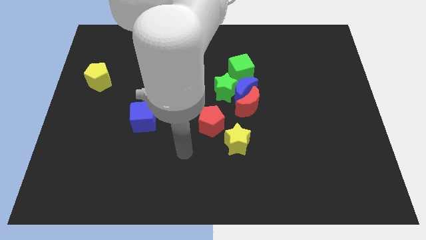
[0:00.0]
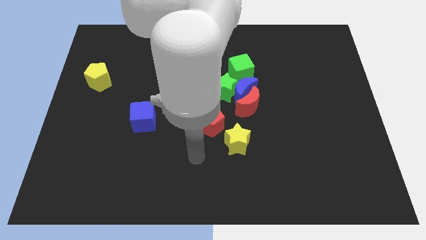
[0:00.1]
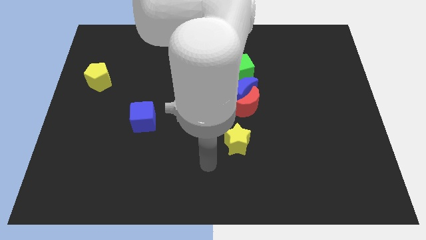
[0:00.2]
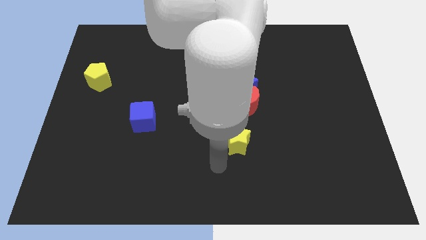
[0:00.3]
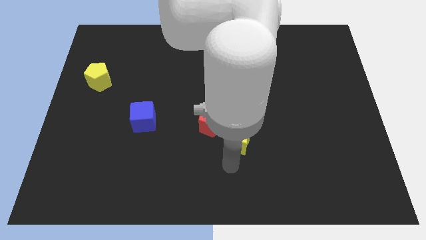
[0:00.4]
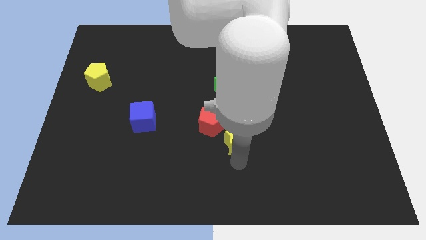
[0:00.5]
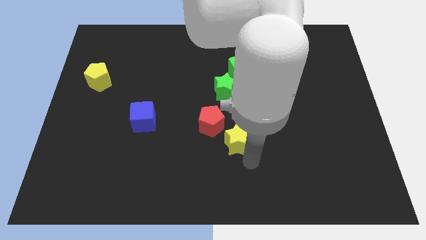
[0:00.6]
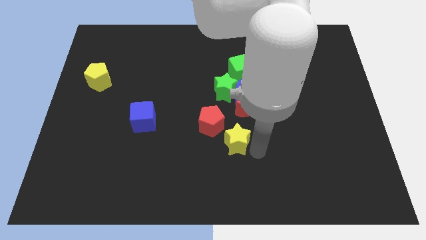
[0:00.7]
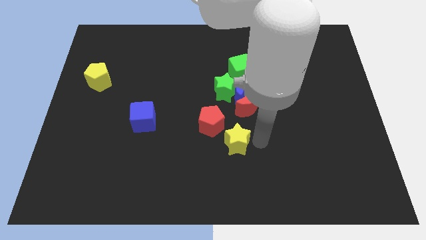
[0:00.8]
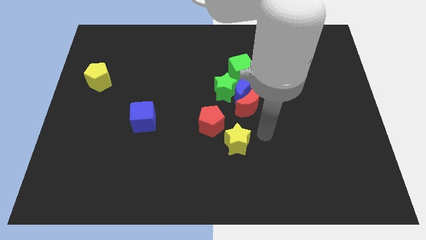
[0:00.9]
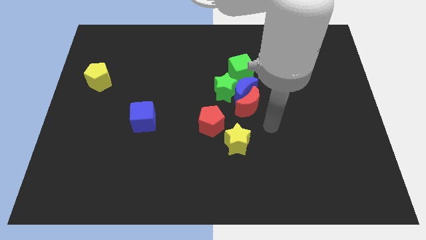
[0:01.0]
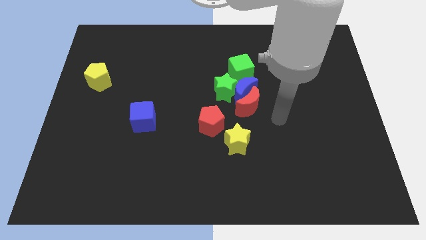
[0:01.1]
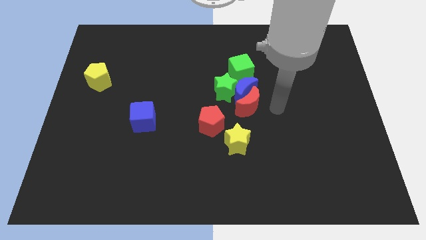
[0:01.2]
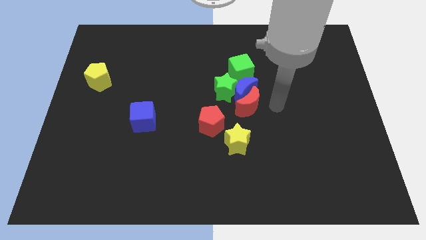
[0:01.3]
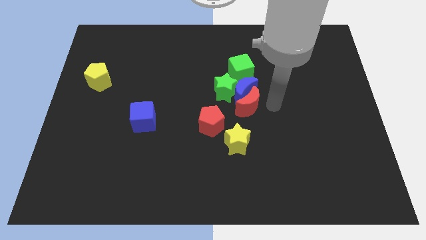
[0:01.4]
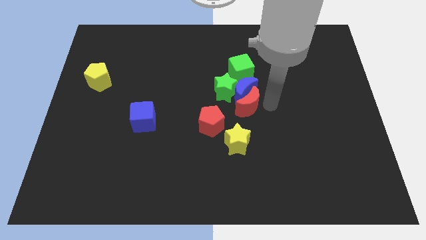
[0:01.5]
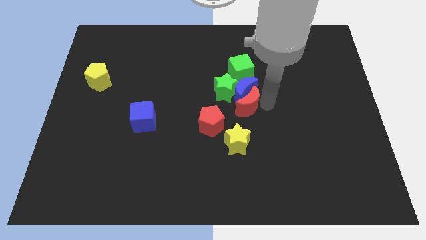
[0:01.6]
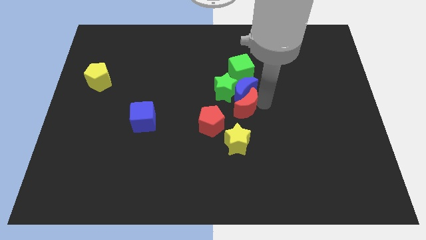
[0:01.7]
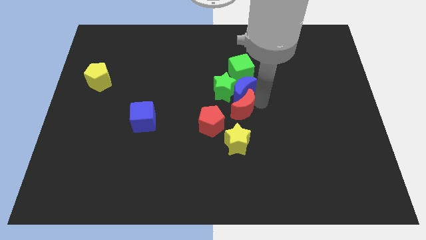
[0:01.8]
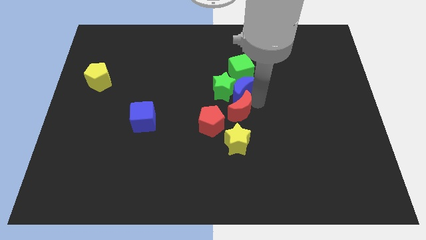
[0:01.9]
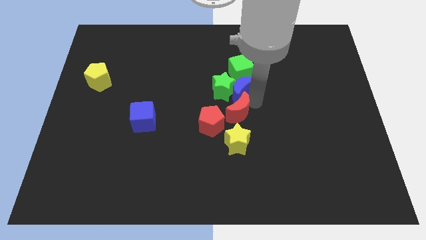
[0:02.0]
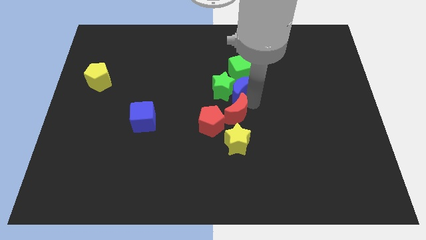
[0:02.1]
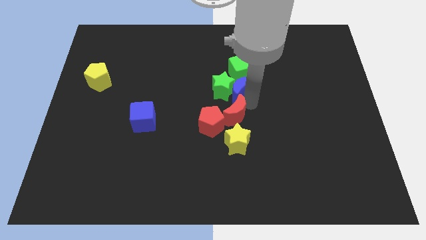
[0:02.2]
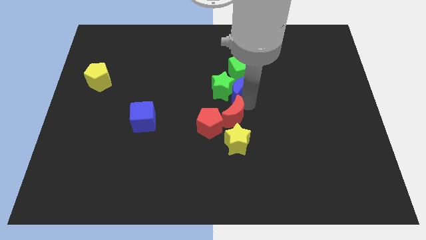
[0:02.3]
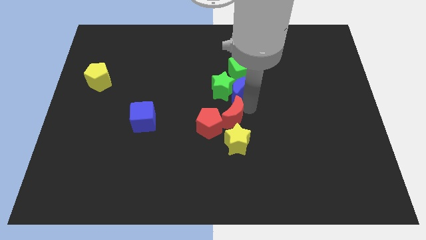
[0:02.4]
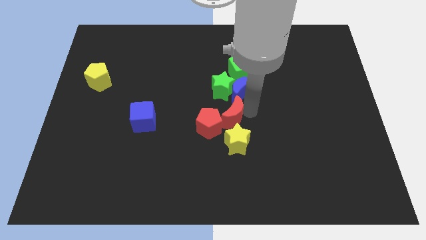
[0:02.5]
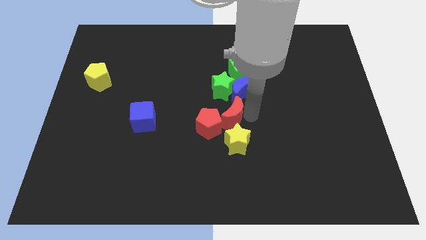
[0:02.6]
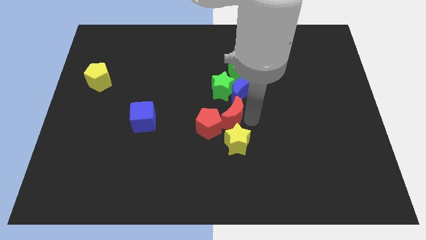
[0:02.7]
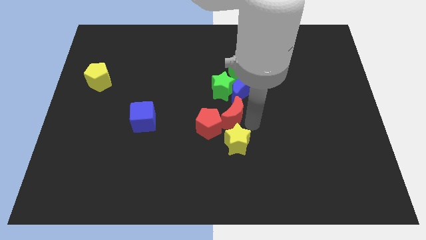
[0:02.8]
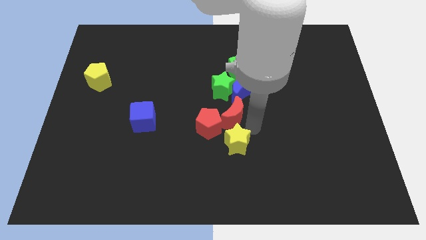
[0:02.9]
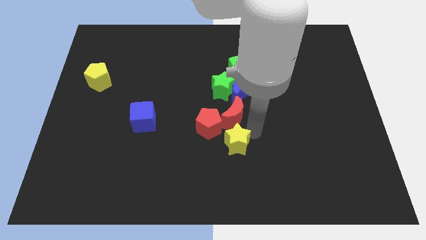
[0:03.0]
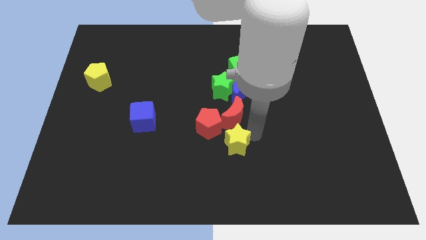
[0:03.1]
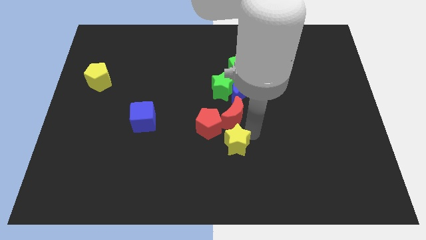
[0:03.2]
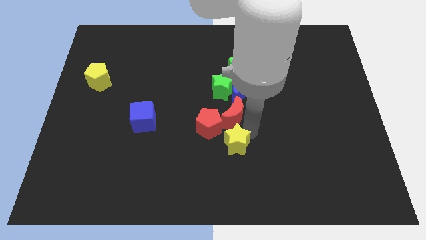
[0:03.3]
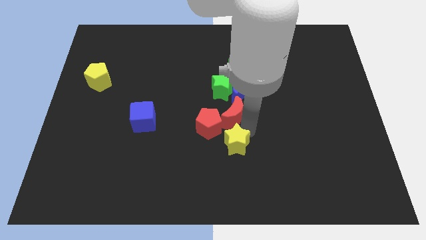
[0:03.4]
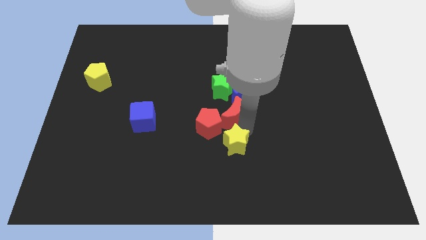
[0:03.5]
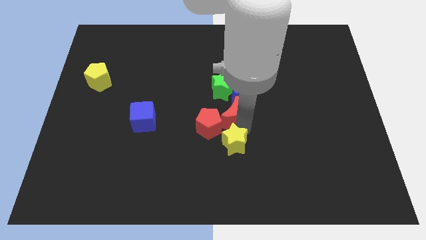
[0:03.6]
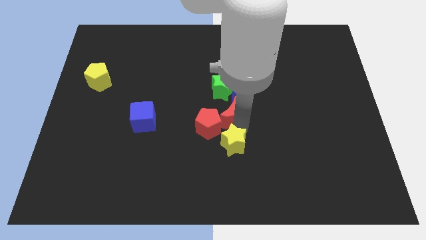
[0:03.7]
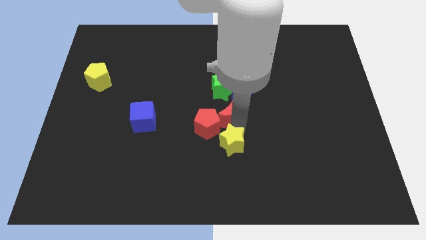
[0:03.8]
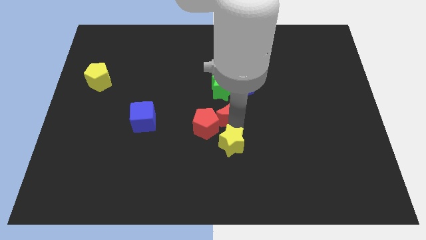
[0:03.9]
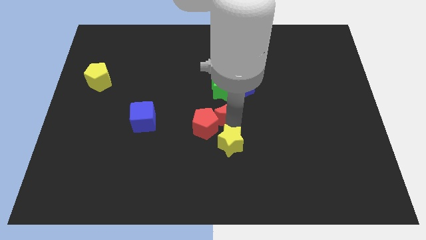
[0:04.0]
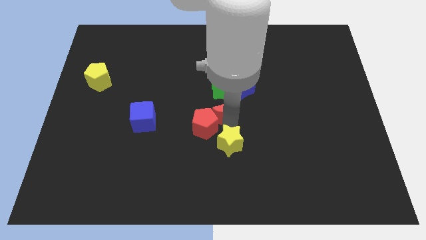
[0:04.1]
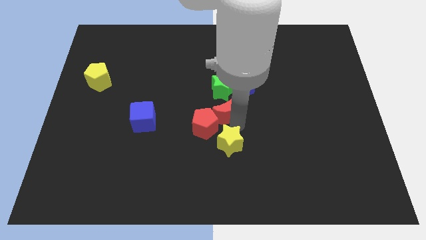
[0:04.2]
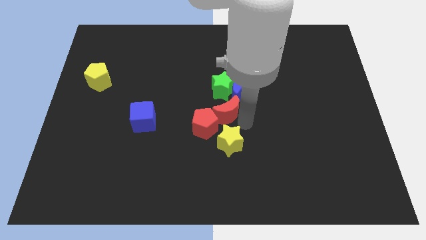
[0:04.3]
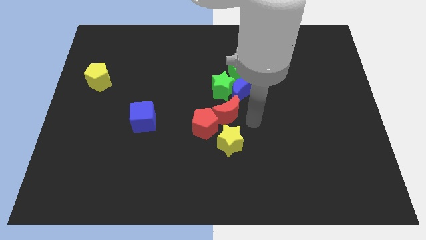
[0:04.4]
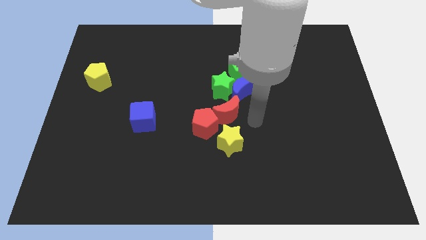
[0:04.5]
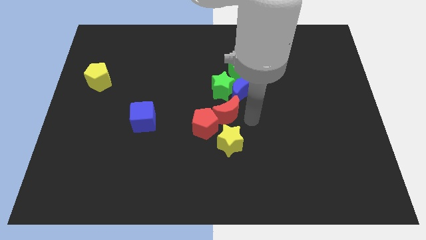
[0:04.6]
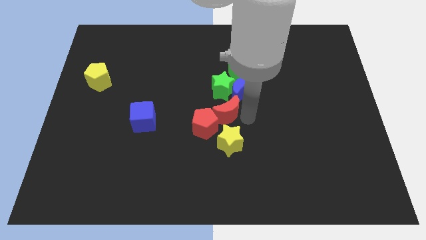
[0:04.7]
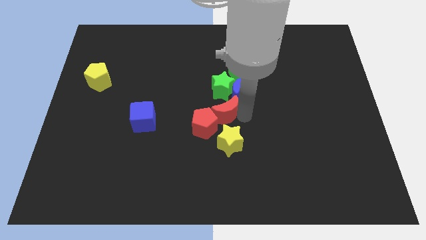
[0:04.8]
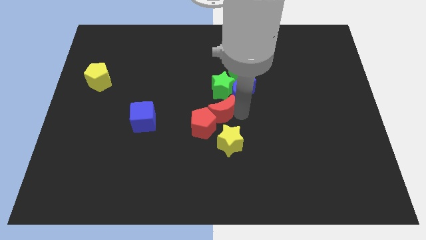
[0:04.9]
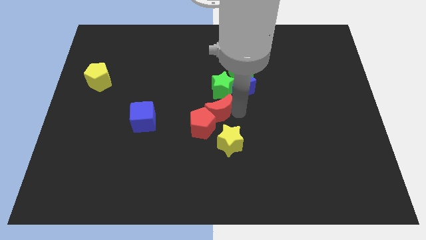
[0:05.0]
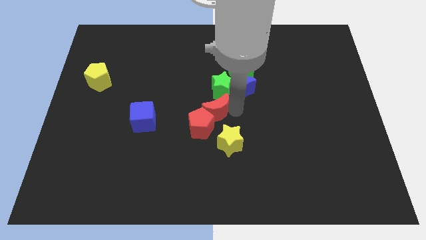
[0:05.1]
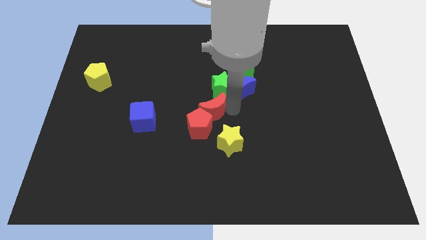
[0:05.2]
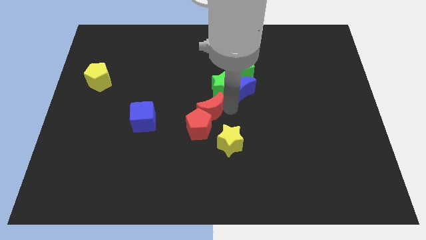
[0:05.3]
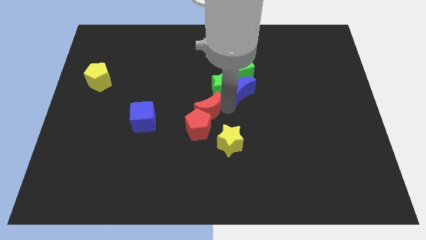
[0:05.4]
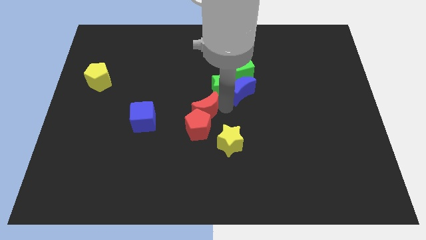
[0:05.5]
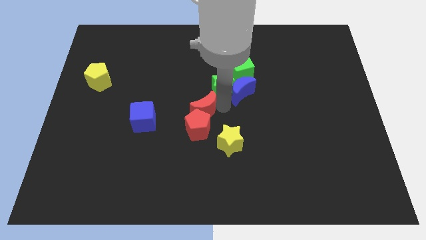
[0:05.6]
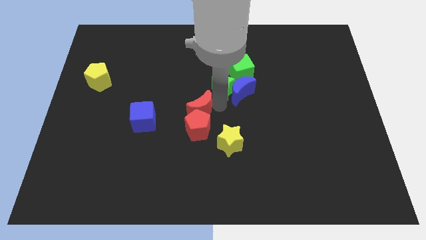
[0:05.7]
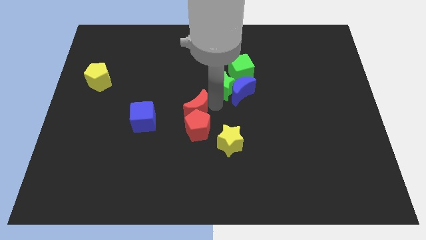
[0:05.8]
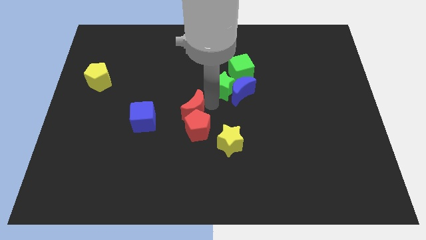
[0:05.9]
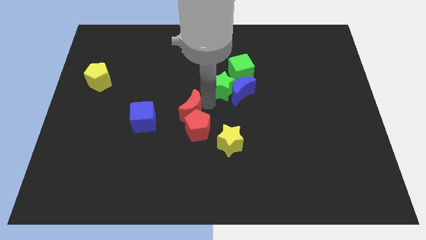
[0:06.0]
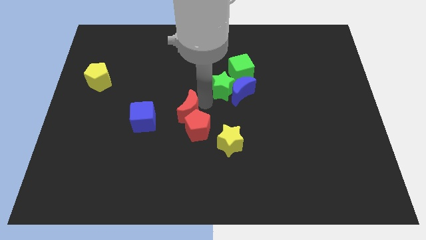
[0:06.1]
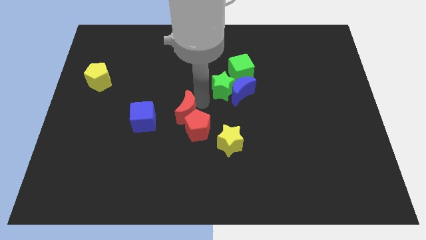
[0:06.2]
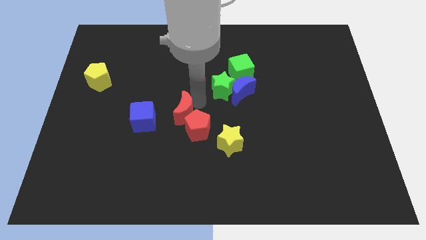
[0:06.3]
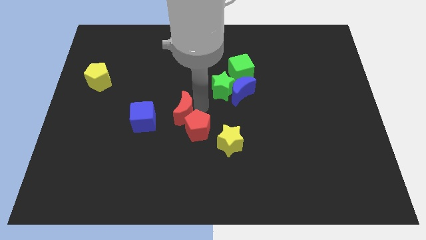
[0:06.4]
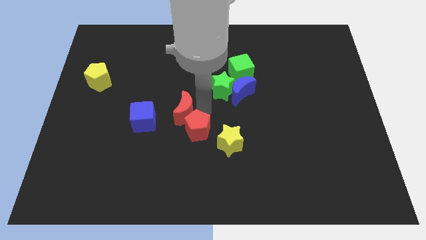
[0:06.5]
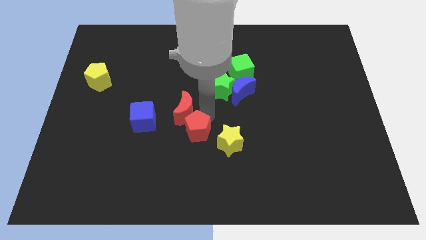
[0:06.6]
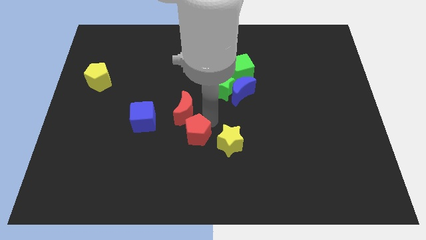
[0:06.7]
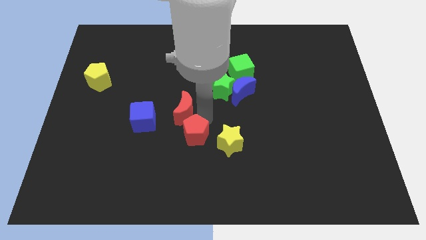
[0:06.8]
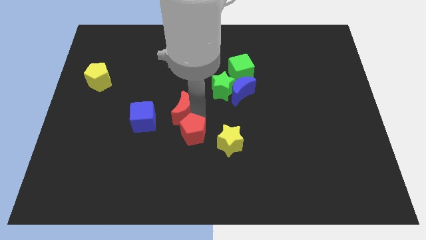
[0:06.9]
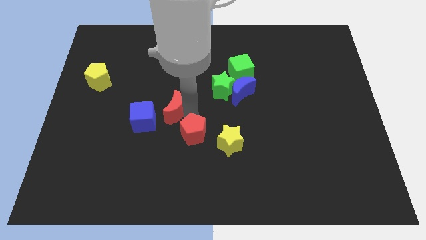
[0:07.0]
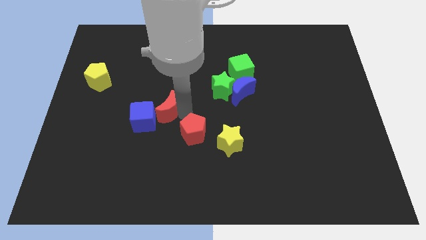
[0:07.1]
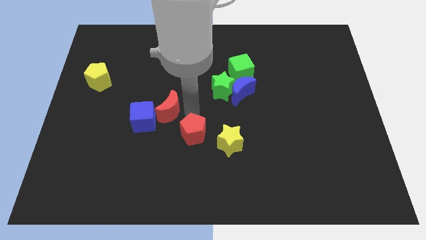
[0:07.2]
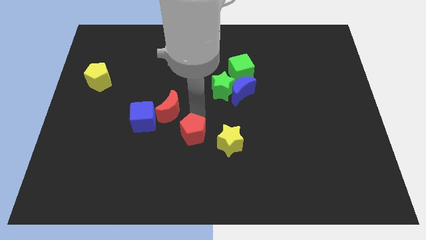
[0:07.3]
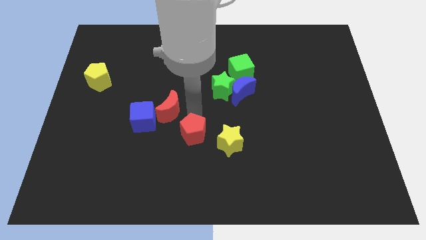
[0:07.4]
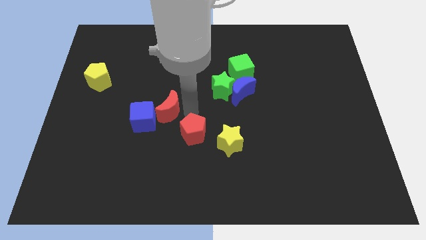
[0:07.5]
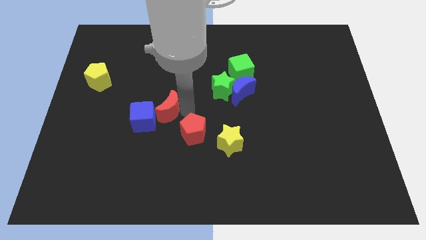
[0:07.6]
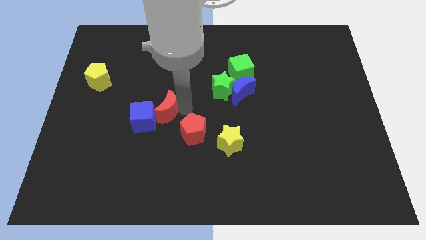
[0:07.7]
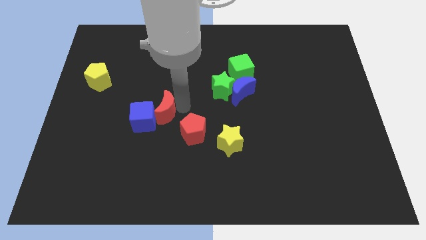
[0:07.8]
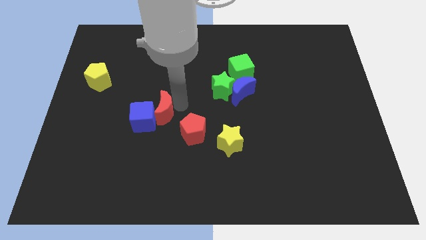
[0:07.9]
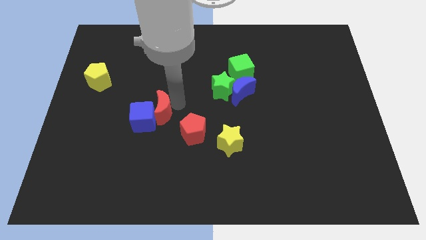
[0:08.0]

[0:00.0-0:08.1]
push the red moon to the left
